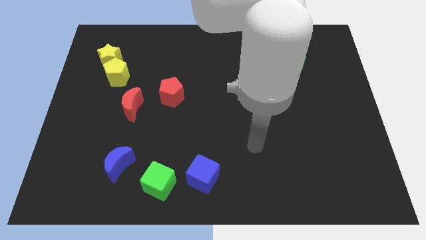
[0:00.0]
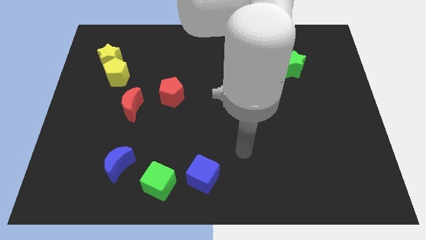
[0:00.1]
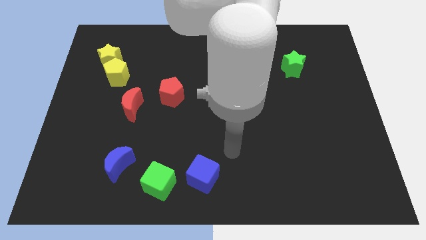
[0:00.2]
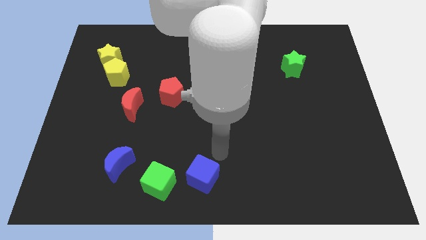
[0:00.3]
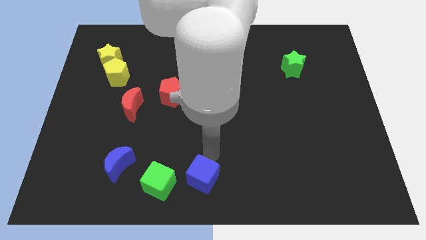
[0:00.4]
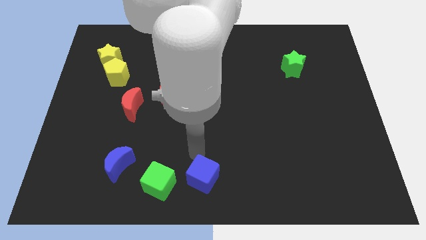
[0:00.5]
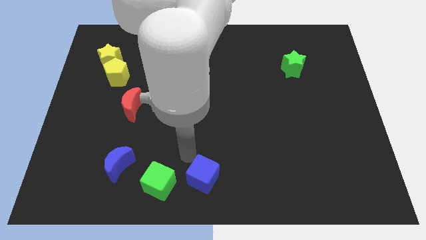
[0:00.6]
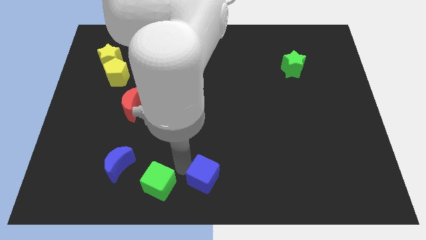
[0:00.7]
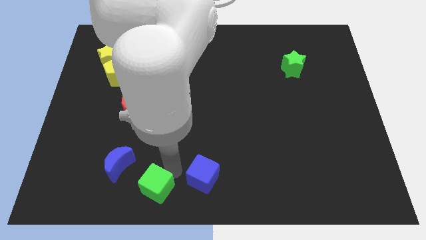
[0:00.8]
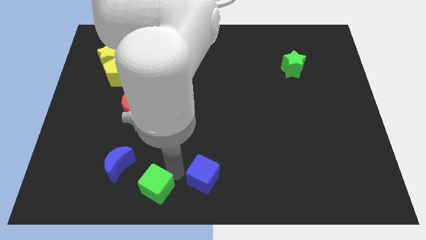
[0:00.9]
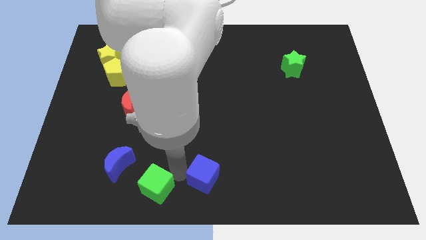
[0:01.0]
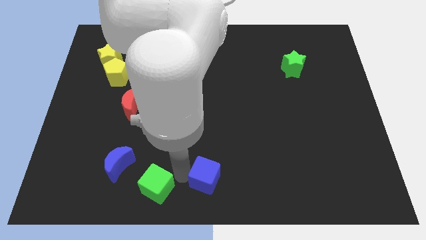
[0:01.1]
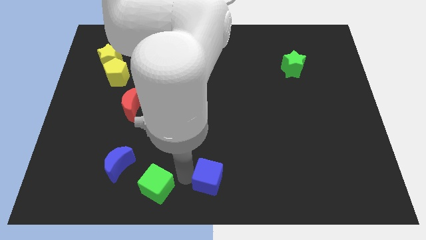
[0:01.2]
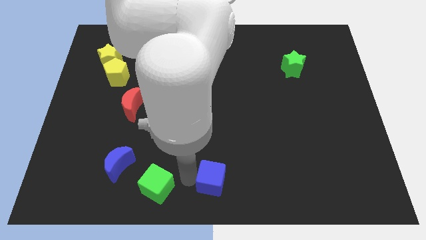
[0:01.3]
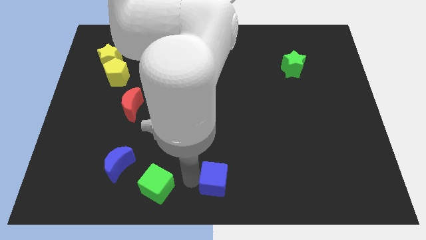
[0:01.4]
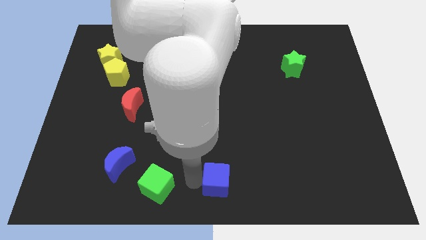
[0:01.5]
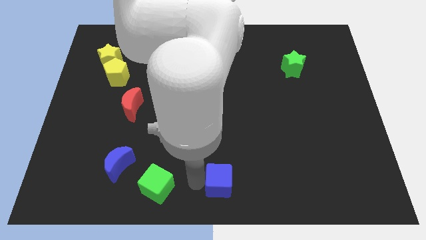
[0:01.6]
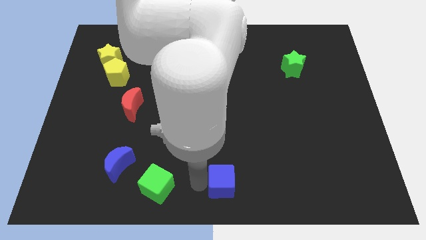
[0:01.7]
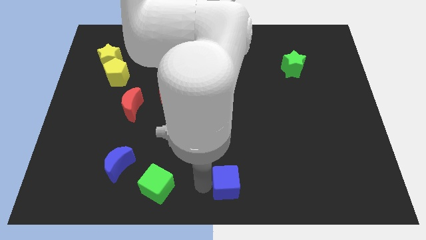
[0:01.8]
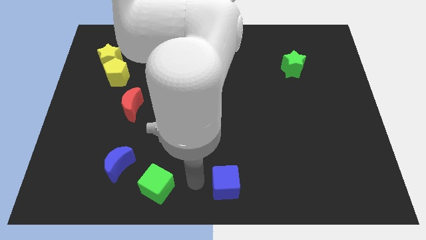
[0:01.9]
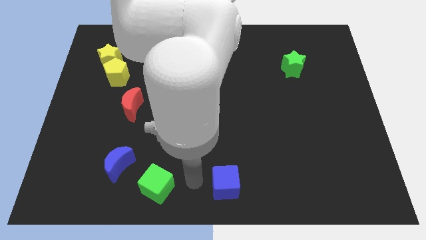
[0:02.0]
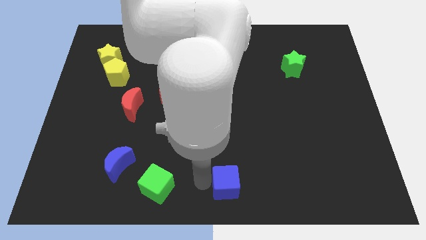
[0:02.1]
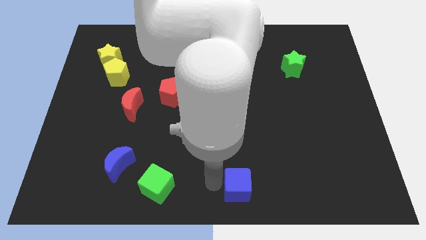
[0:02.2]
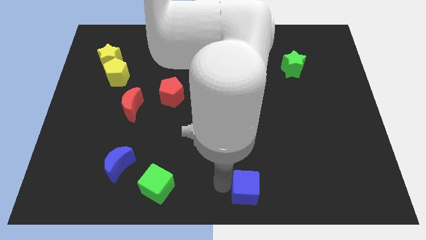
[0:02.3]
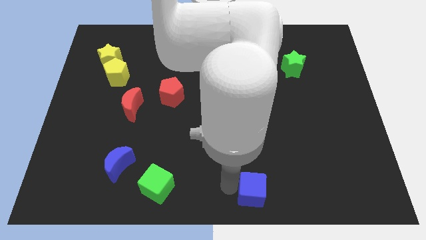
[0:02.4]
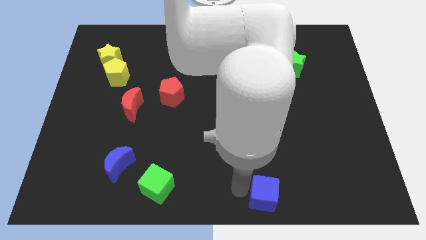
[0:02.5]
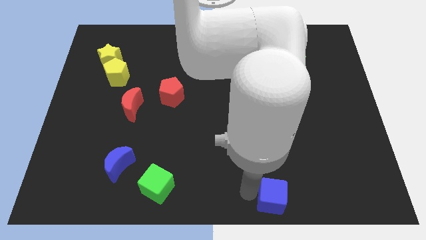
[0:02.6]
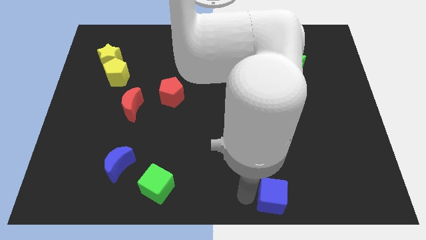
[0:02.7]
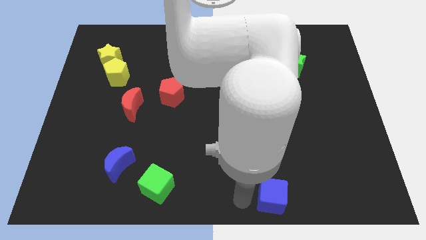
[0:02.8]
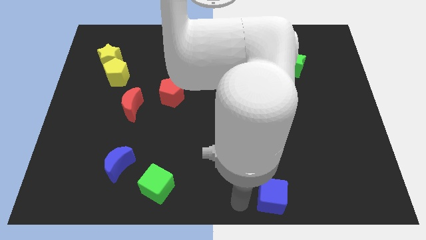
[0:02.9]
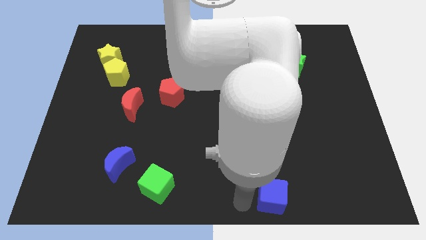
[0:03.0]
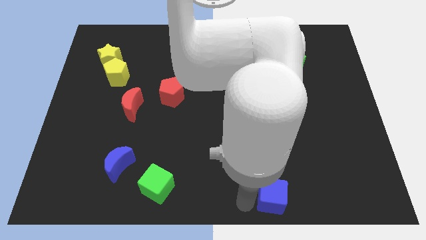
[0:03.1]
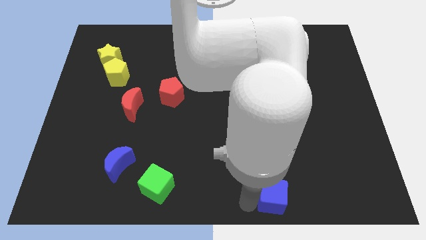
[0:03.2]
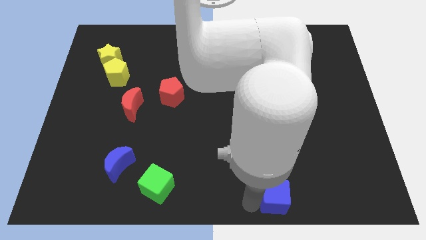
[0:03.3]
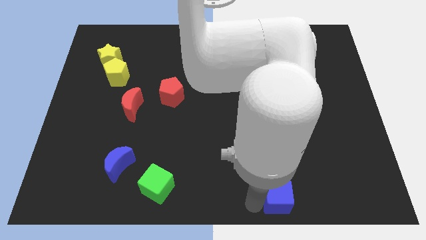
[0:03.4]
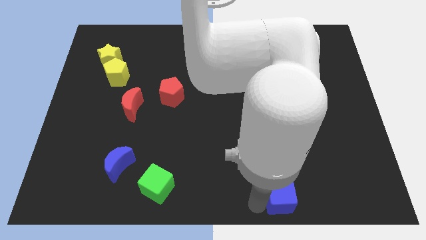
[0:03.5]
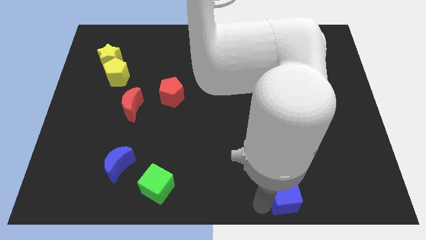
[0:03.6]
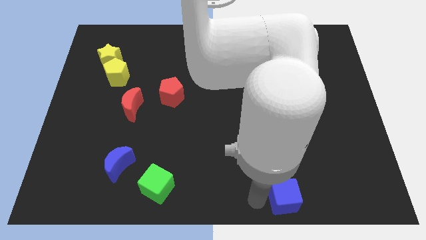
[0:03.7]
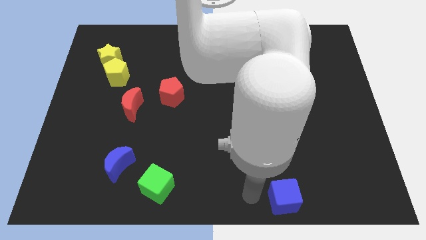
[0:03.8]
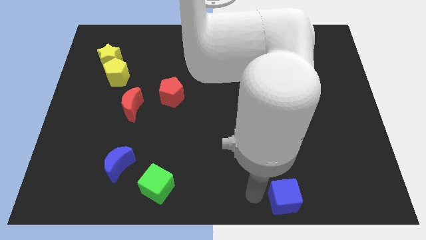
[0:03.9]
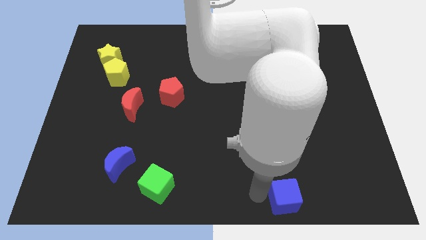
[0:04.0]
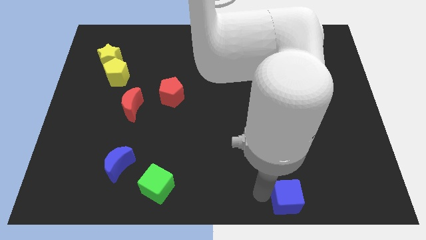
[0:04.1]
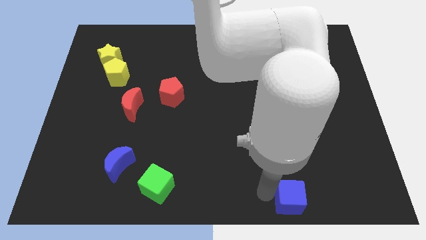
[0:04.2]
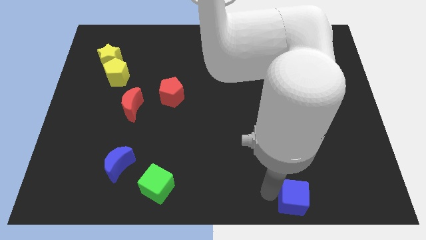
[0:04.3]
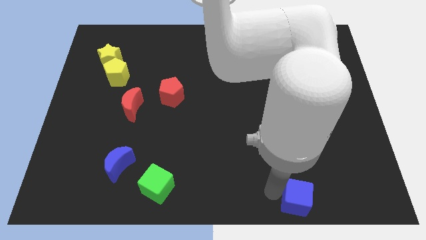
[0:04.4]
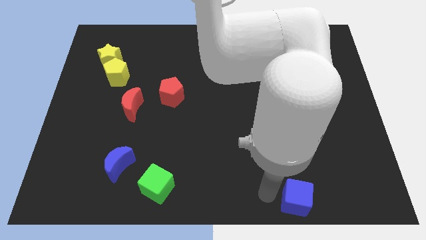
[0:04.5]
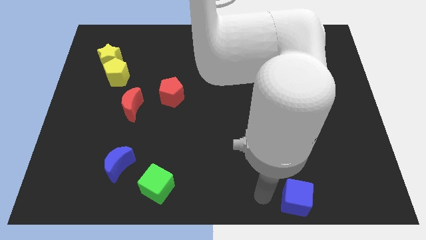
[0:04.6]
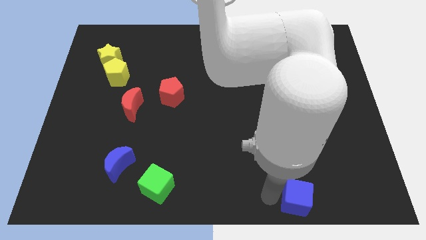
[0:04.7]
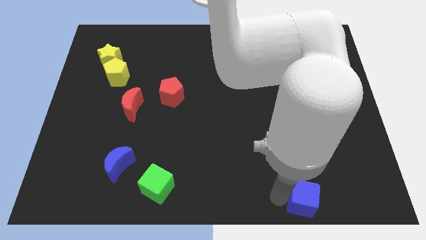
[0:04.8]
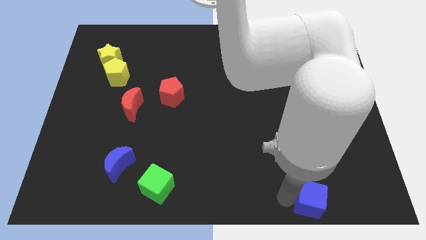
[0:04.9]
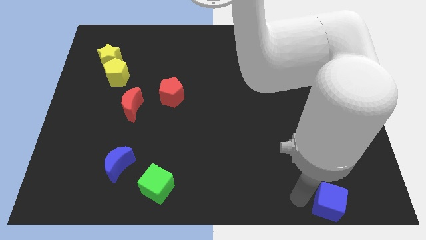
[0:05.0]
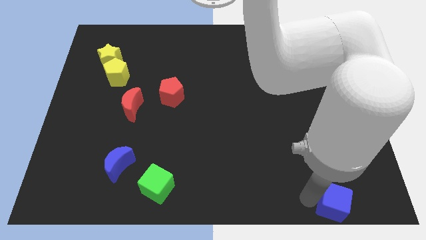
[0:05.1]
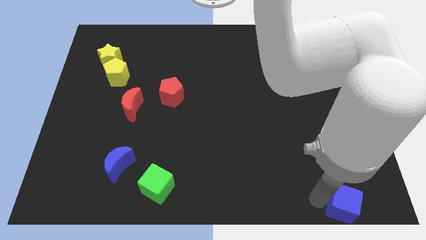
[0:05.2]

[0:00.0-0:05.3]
put the blue cube to the bottom right of the board

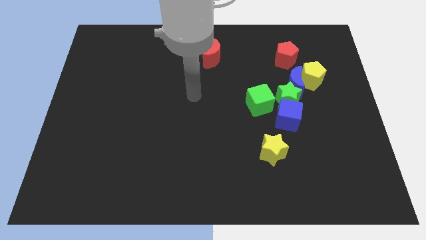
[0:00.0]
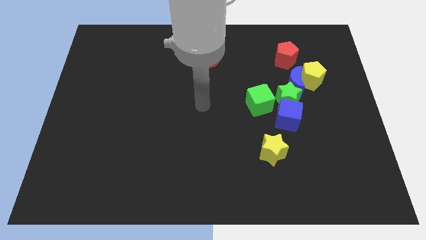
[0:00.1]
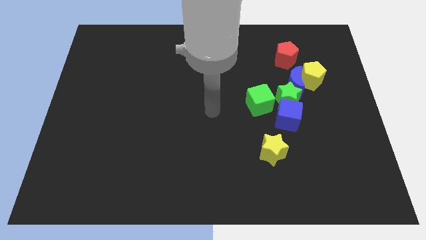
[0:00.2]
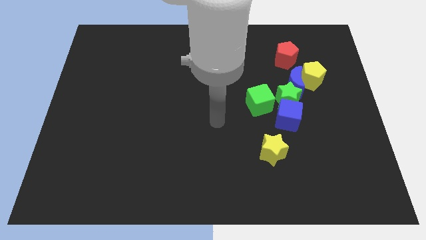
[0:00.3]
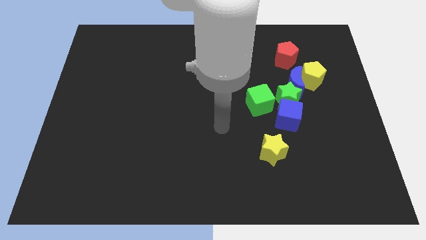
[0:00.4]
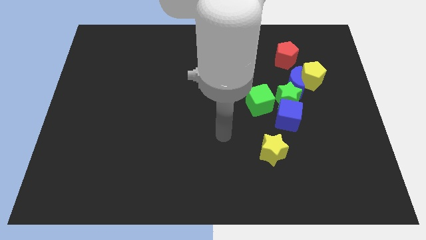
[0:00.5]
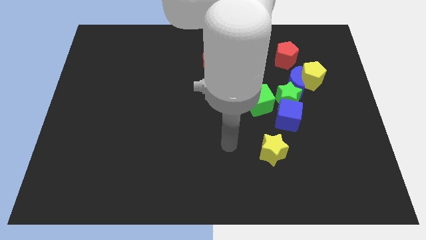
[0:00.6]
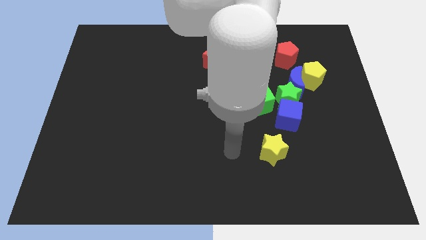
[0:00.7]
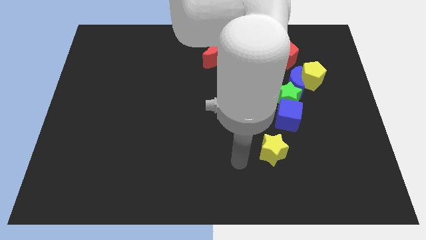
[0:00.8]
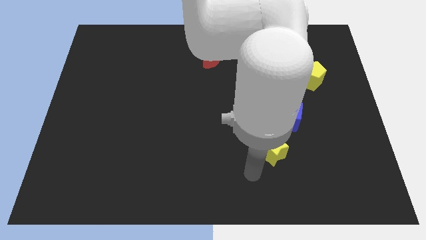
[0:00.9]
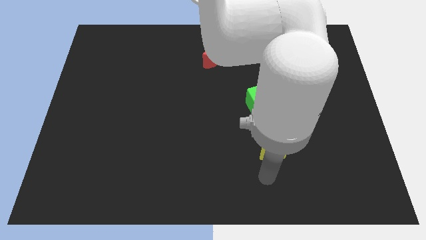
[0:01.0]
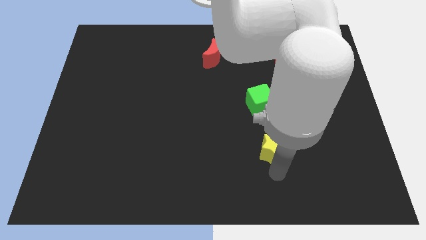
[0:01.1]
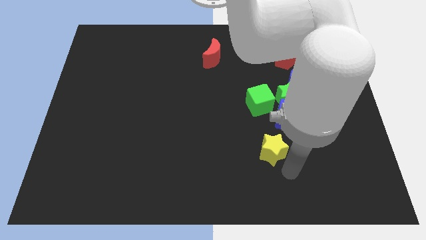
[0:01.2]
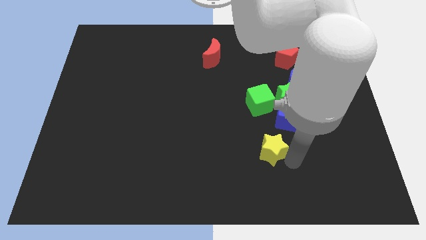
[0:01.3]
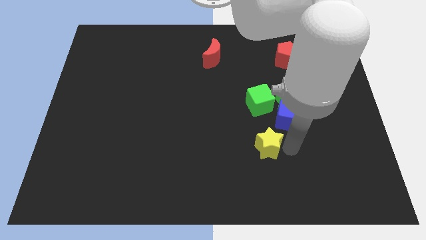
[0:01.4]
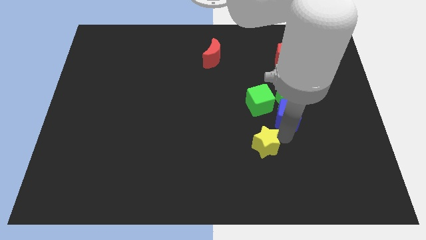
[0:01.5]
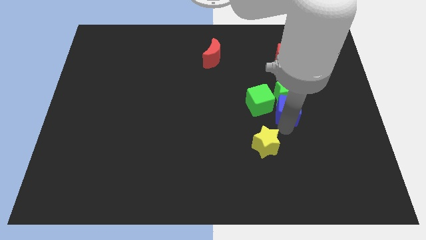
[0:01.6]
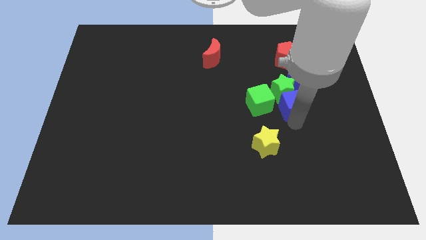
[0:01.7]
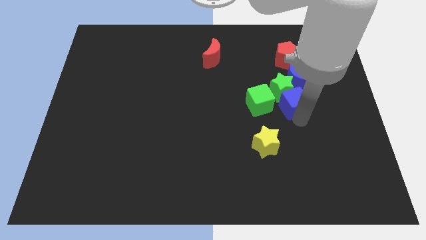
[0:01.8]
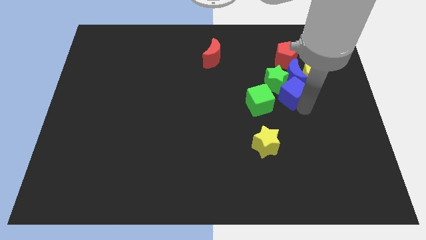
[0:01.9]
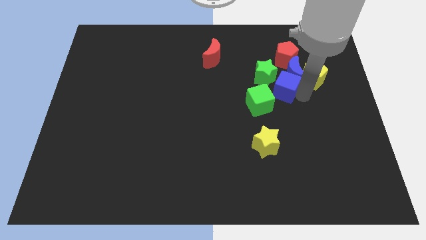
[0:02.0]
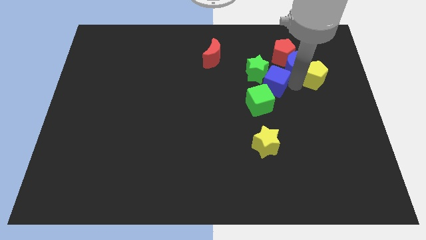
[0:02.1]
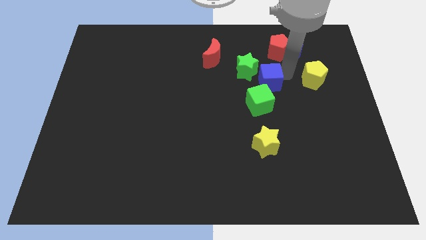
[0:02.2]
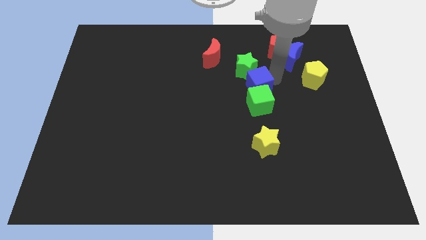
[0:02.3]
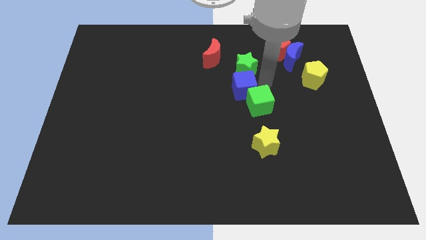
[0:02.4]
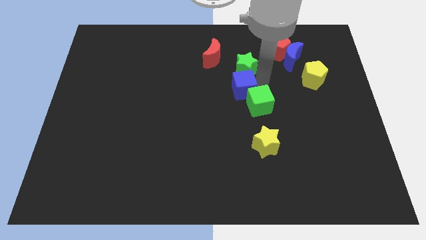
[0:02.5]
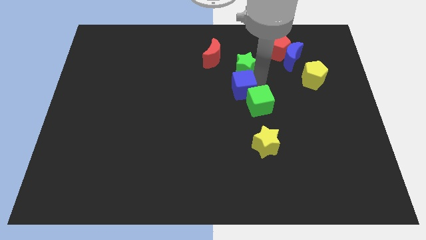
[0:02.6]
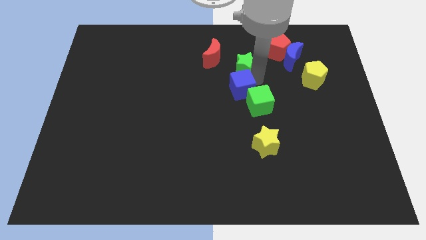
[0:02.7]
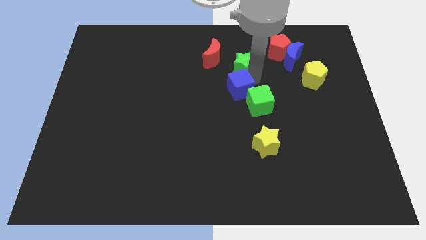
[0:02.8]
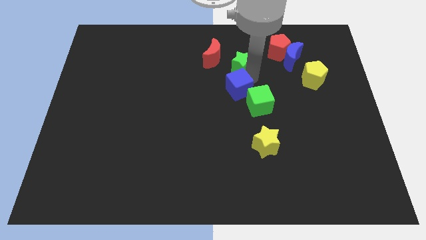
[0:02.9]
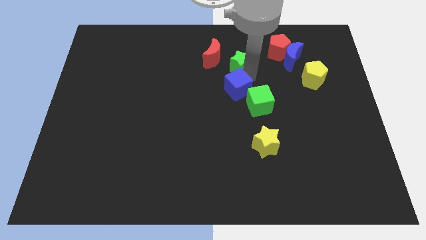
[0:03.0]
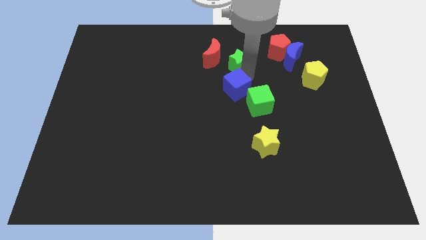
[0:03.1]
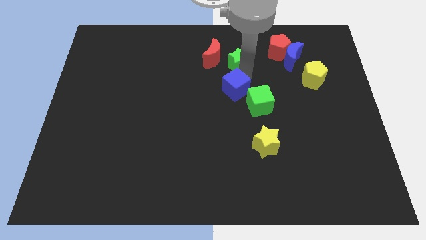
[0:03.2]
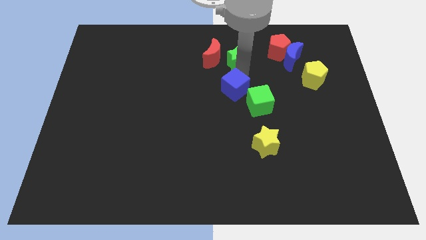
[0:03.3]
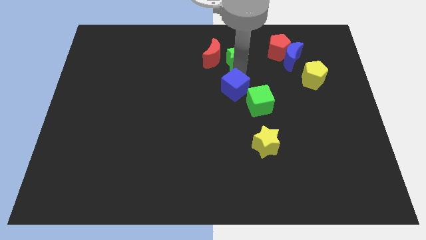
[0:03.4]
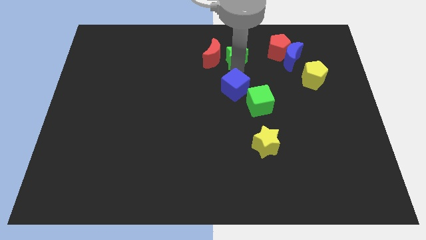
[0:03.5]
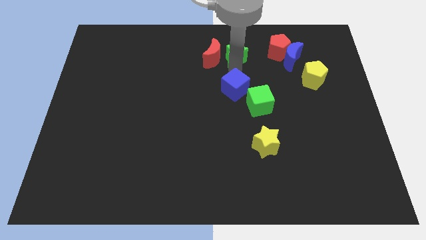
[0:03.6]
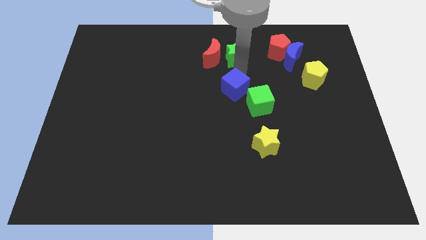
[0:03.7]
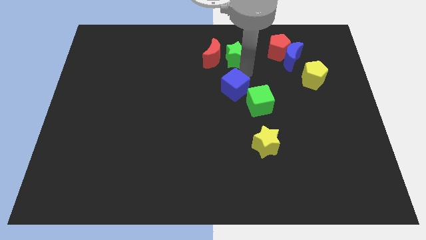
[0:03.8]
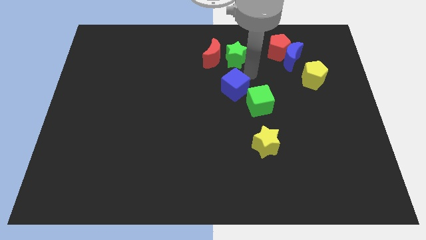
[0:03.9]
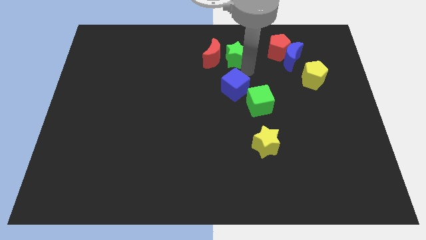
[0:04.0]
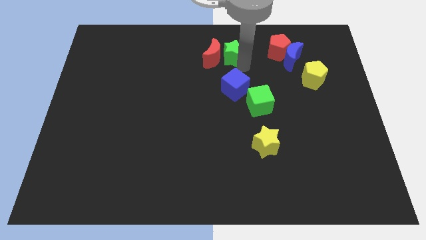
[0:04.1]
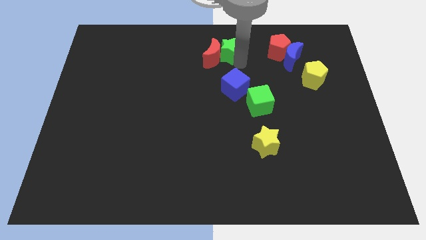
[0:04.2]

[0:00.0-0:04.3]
move the green star to the towards your base
